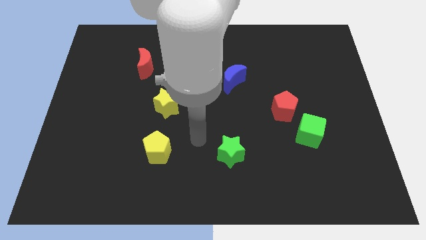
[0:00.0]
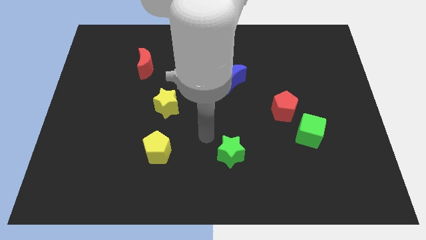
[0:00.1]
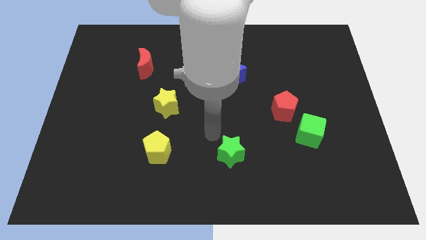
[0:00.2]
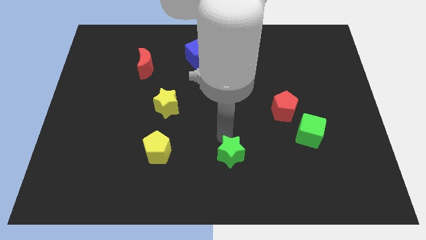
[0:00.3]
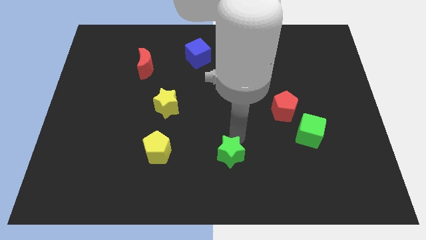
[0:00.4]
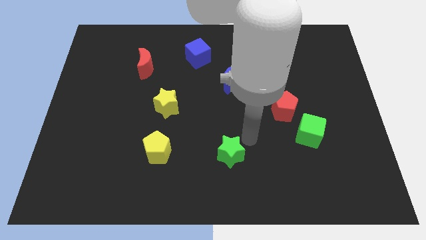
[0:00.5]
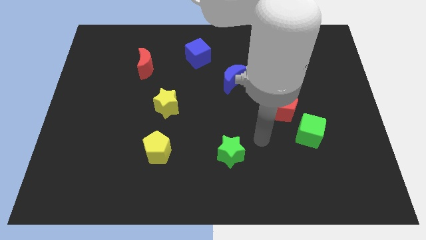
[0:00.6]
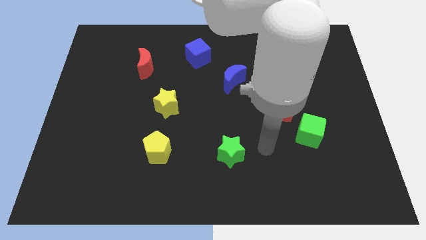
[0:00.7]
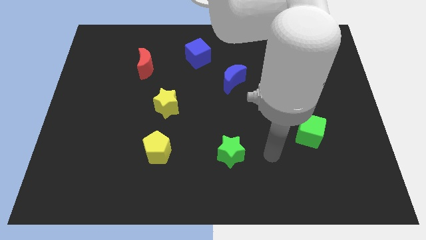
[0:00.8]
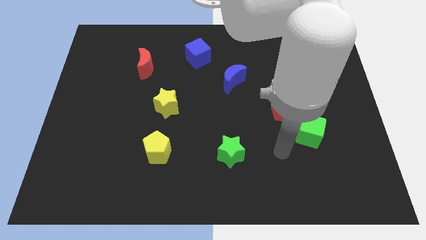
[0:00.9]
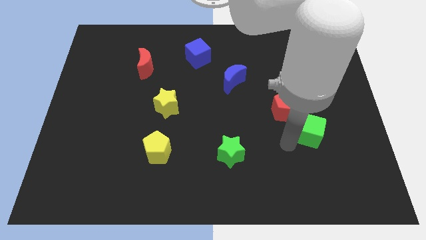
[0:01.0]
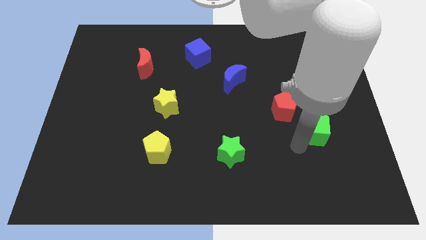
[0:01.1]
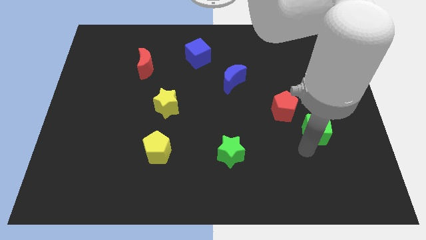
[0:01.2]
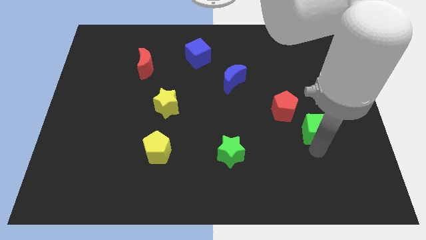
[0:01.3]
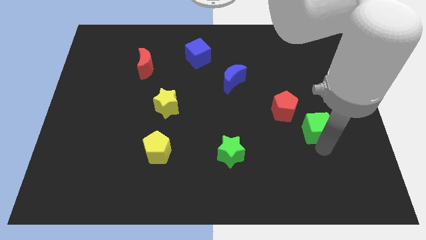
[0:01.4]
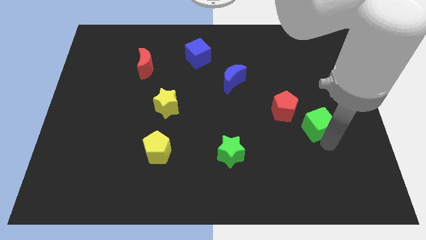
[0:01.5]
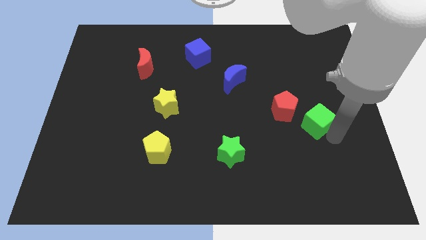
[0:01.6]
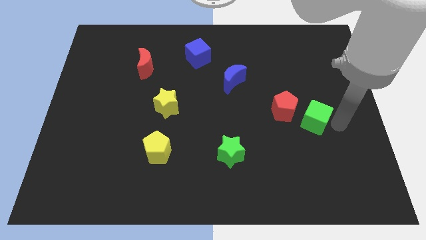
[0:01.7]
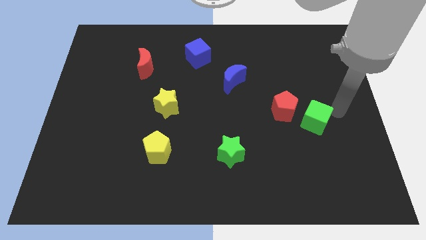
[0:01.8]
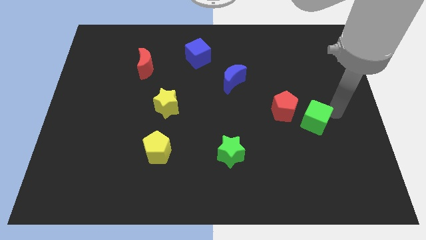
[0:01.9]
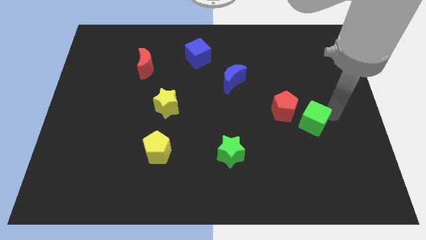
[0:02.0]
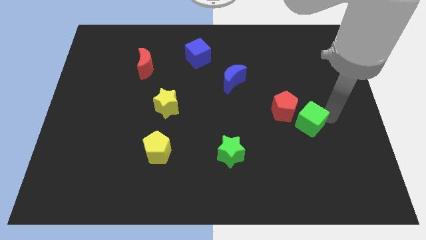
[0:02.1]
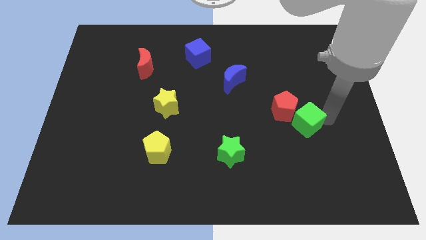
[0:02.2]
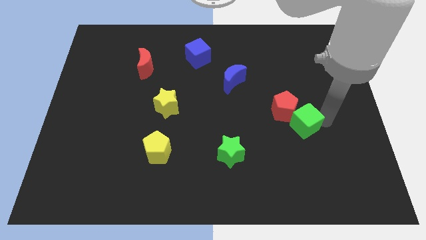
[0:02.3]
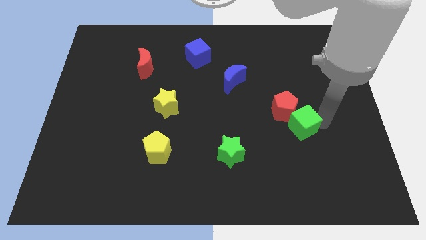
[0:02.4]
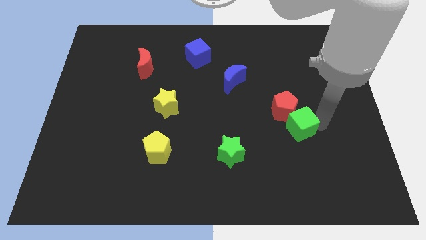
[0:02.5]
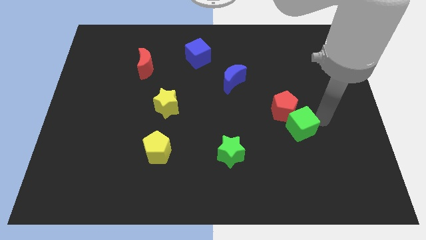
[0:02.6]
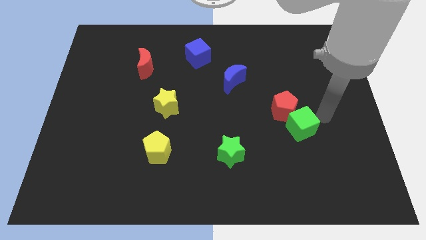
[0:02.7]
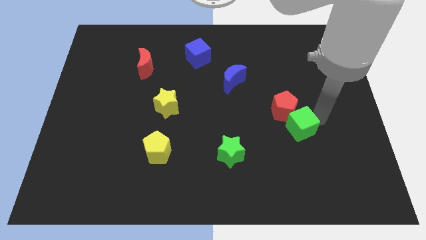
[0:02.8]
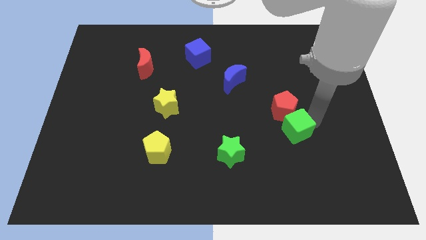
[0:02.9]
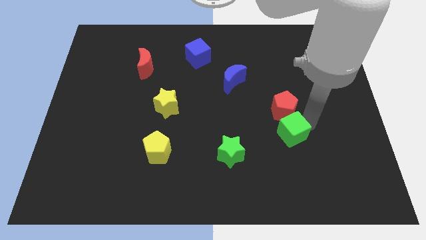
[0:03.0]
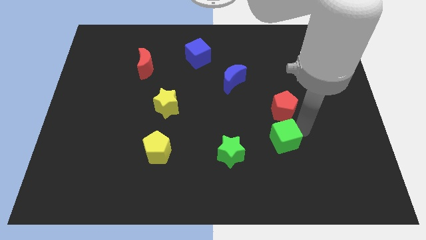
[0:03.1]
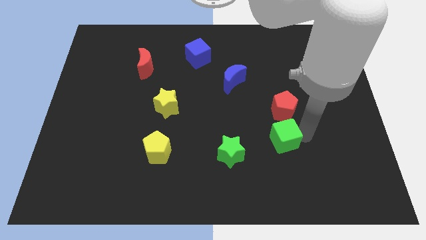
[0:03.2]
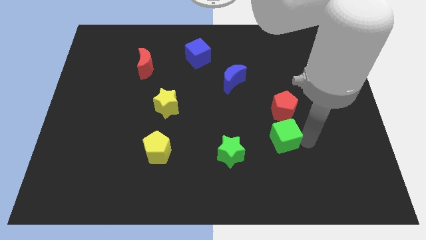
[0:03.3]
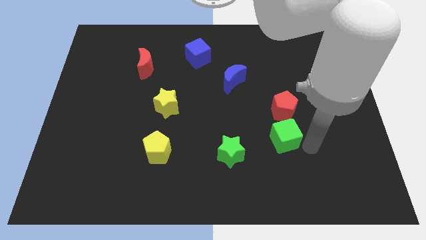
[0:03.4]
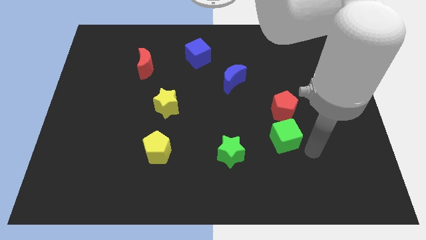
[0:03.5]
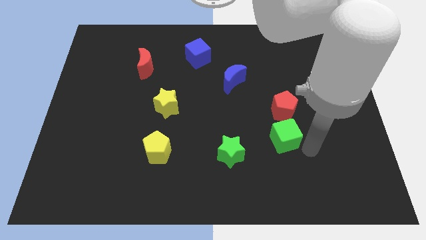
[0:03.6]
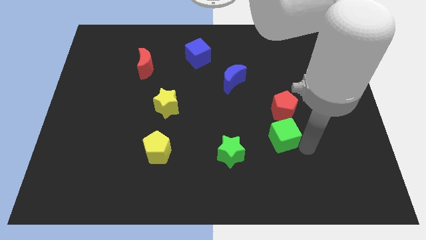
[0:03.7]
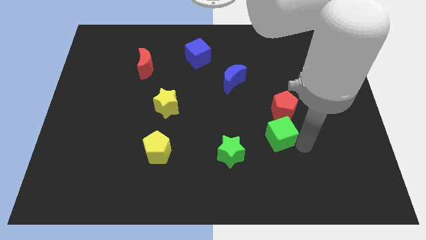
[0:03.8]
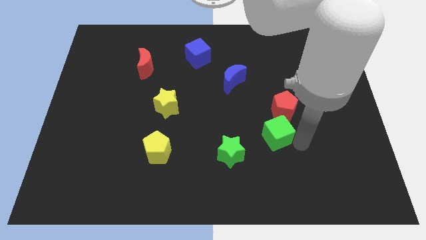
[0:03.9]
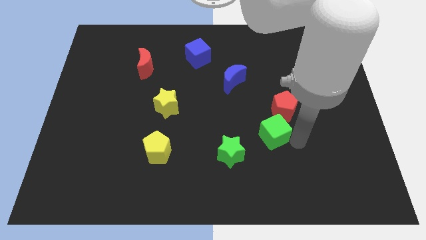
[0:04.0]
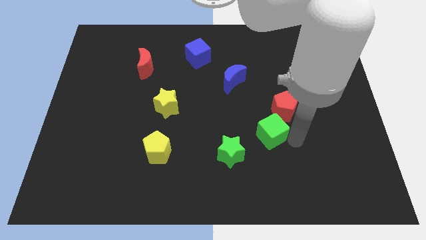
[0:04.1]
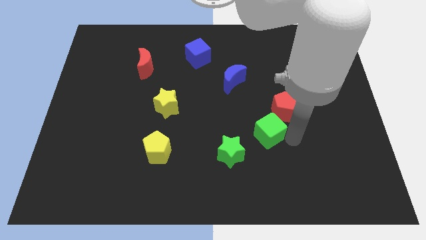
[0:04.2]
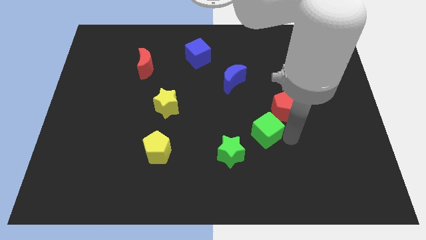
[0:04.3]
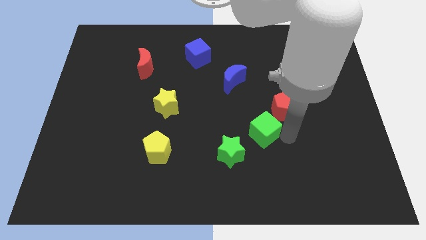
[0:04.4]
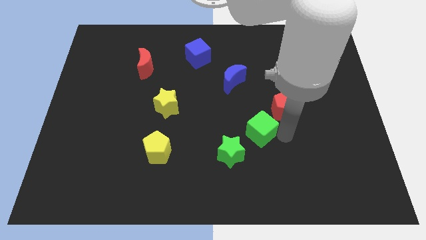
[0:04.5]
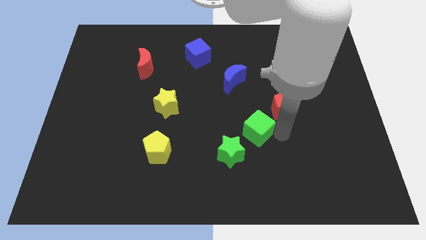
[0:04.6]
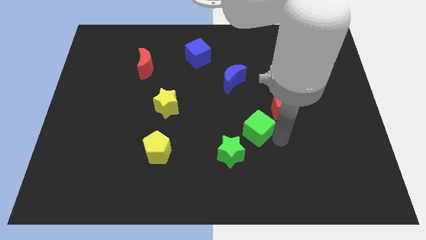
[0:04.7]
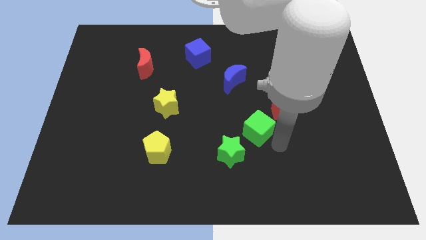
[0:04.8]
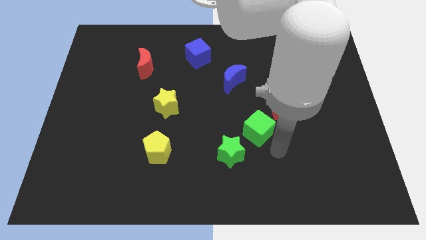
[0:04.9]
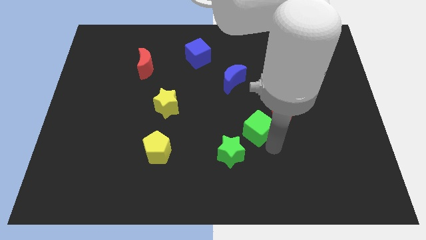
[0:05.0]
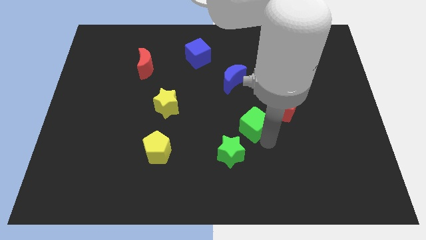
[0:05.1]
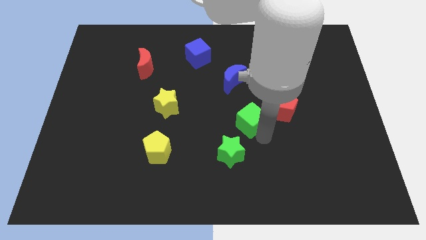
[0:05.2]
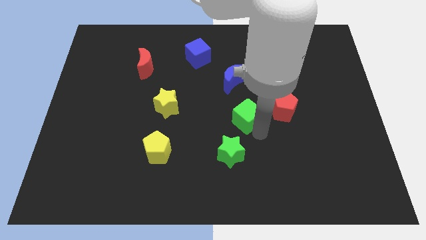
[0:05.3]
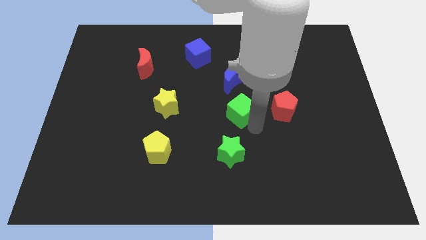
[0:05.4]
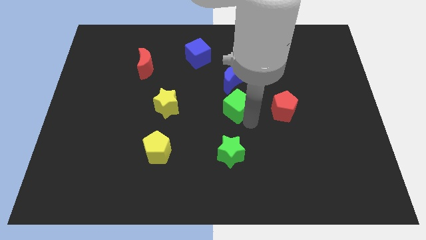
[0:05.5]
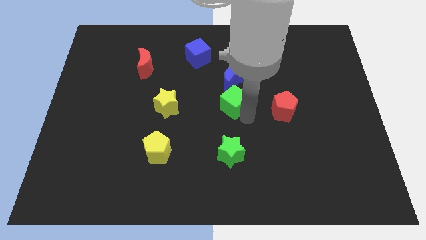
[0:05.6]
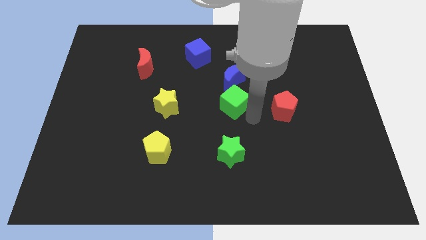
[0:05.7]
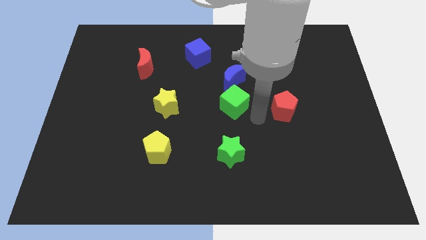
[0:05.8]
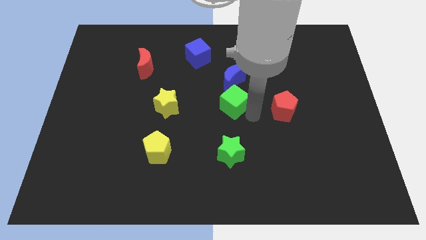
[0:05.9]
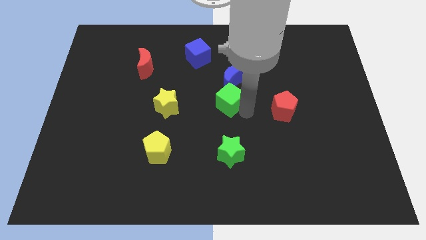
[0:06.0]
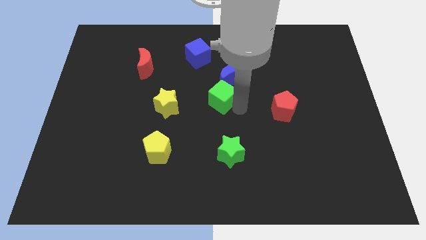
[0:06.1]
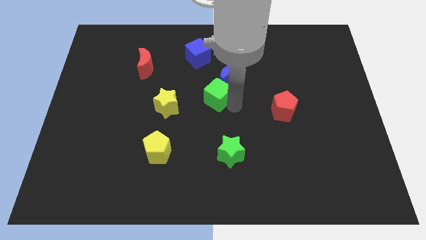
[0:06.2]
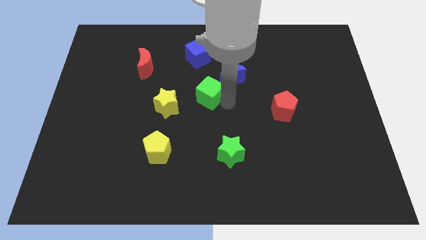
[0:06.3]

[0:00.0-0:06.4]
move the green cube below the blue cube

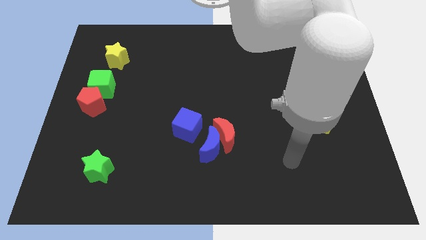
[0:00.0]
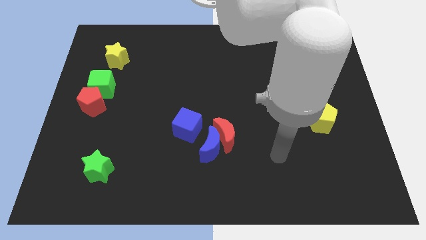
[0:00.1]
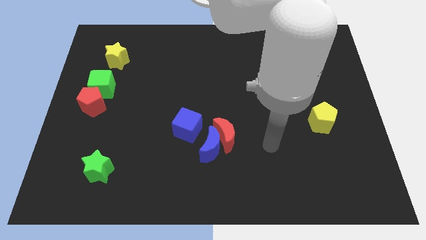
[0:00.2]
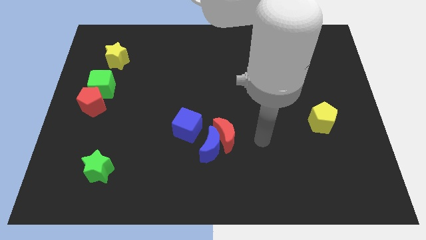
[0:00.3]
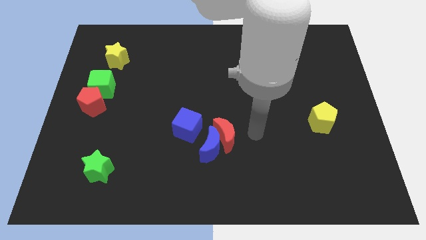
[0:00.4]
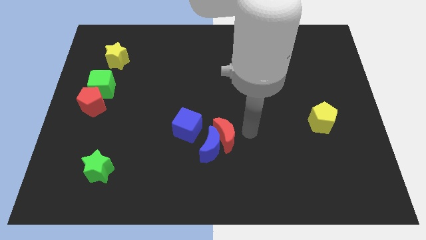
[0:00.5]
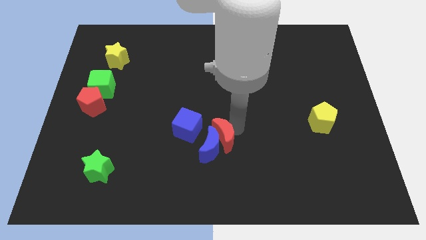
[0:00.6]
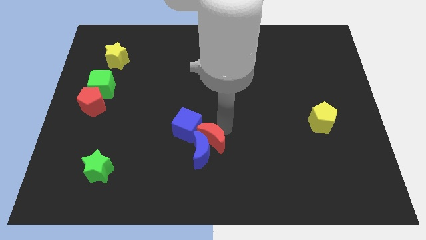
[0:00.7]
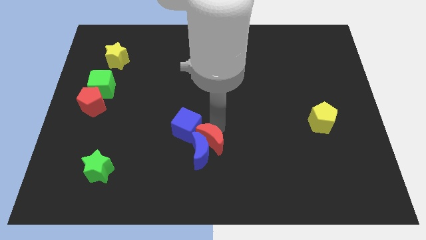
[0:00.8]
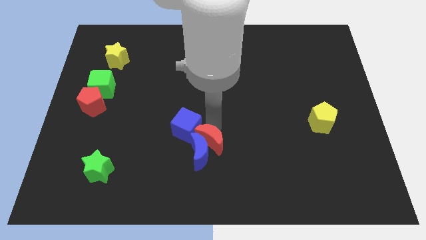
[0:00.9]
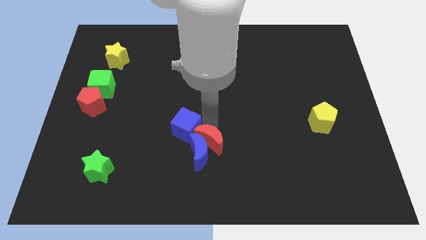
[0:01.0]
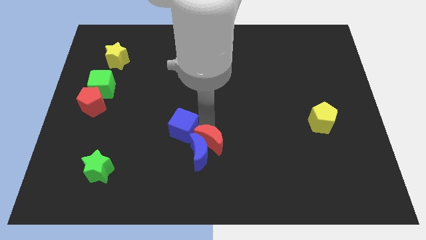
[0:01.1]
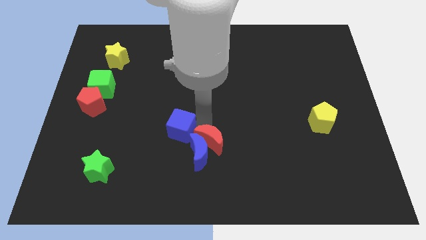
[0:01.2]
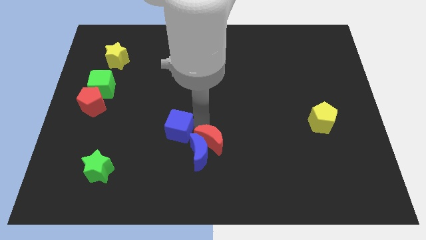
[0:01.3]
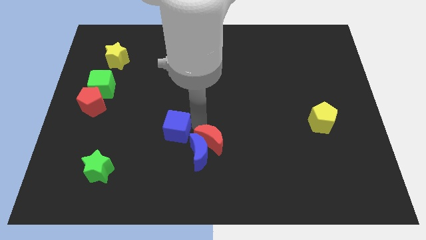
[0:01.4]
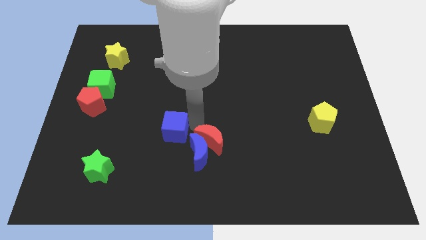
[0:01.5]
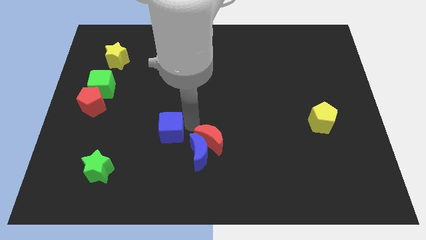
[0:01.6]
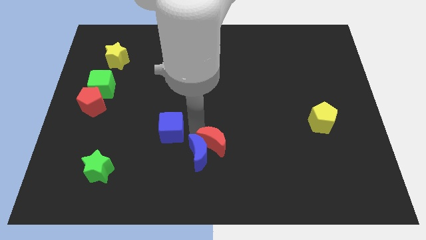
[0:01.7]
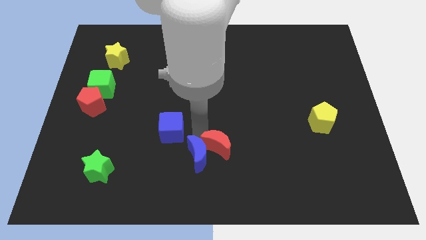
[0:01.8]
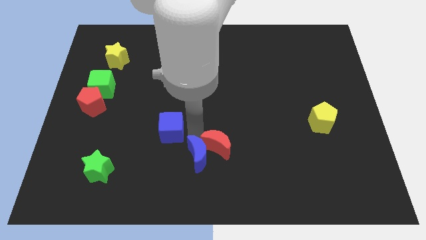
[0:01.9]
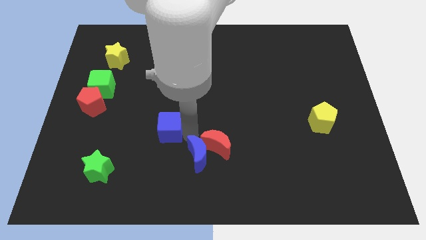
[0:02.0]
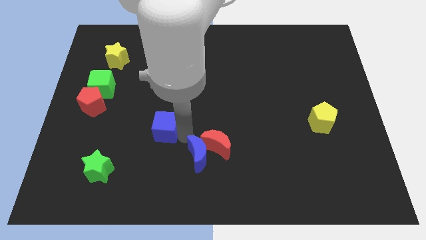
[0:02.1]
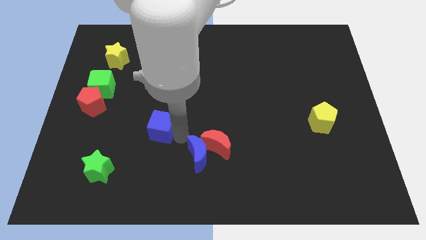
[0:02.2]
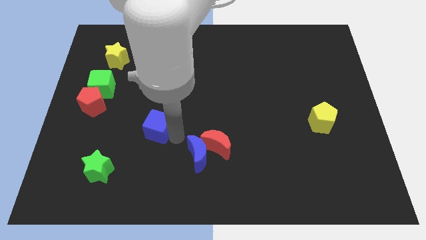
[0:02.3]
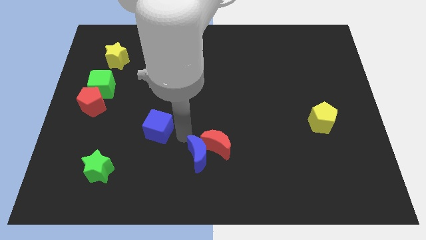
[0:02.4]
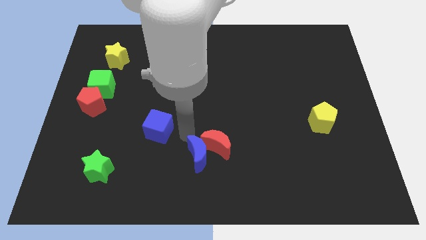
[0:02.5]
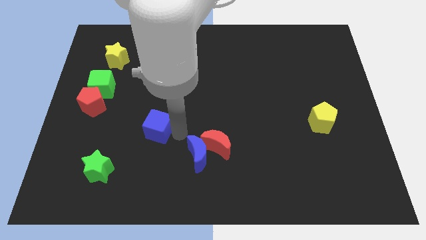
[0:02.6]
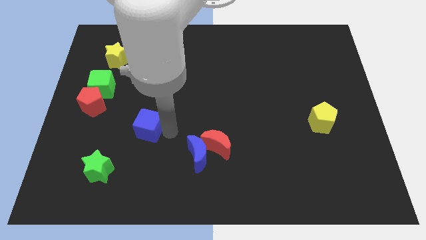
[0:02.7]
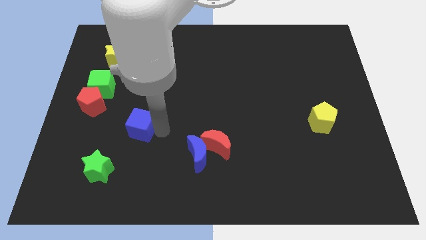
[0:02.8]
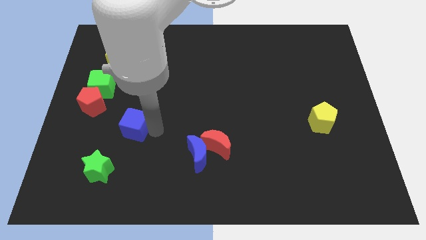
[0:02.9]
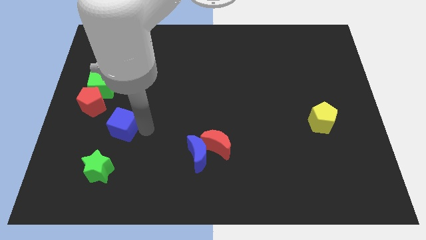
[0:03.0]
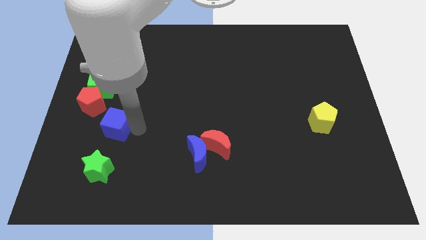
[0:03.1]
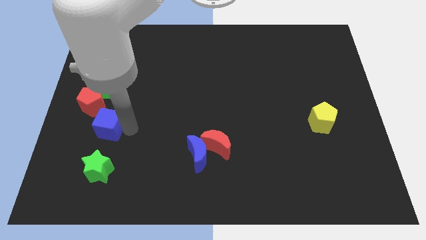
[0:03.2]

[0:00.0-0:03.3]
put the blue cube below the green cube
